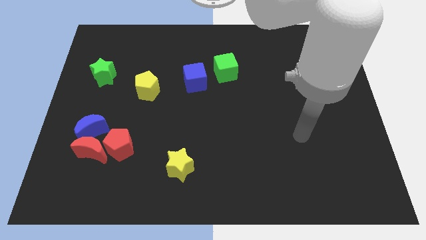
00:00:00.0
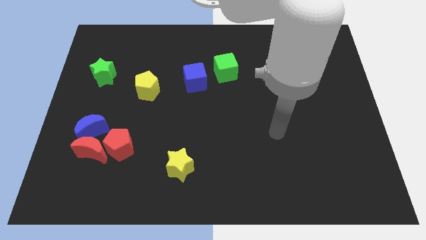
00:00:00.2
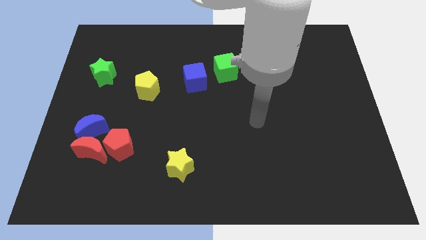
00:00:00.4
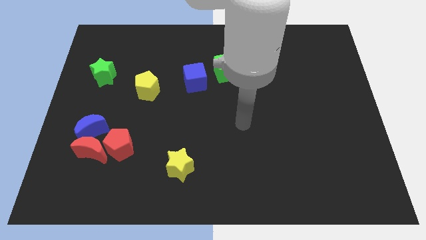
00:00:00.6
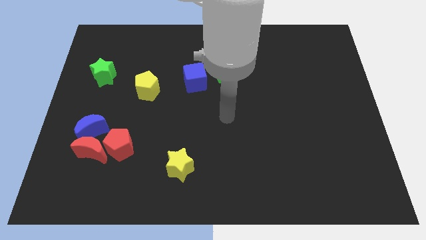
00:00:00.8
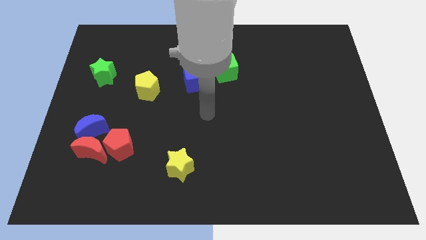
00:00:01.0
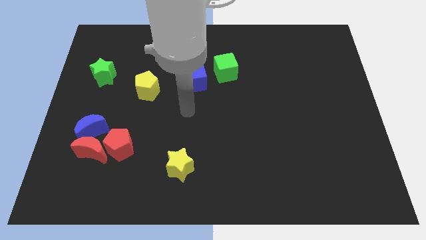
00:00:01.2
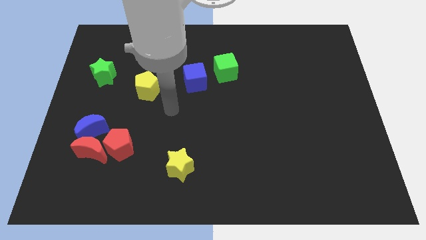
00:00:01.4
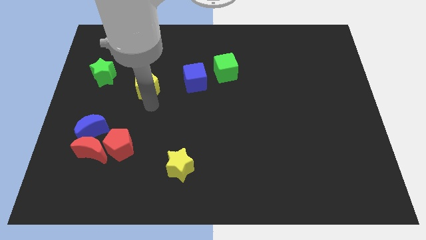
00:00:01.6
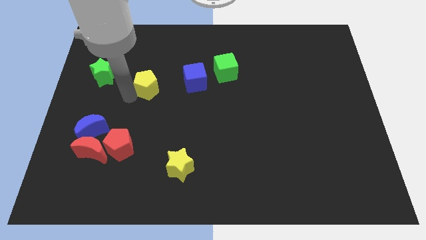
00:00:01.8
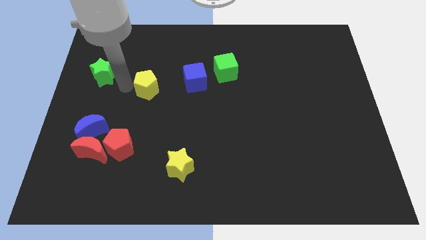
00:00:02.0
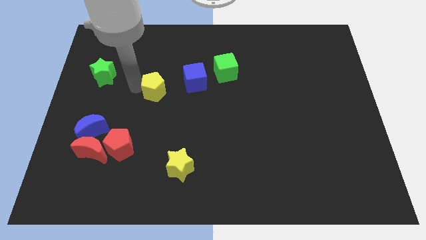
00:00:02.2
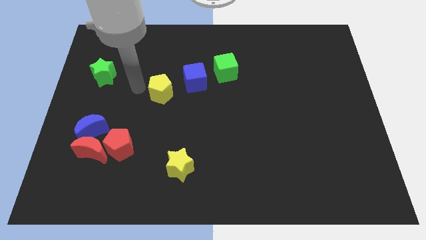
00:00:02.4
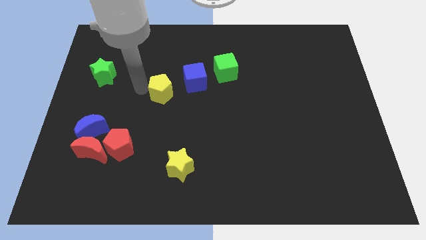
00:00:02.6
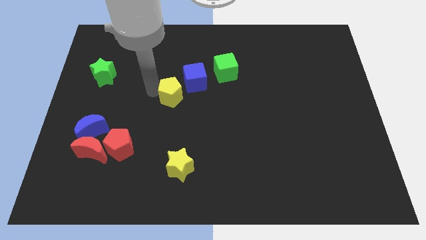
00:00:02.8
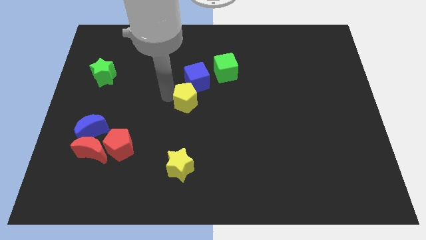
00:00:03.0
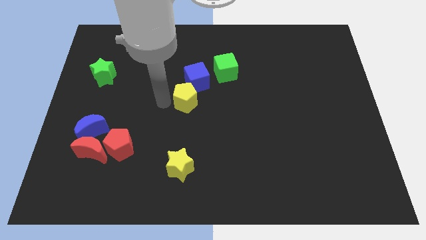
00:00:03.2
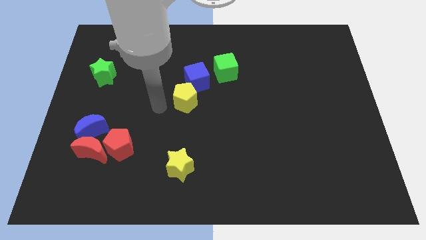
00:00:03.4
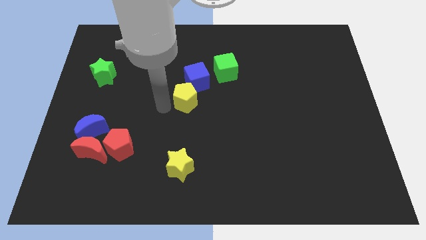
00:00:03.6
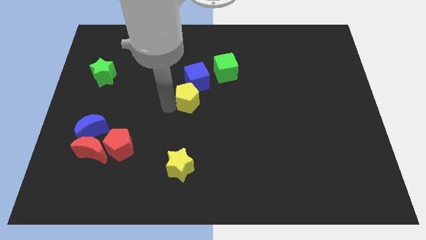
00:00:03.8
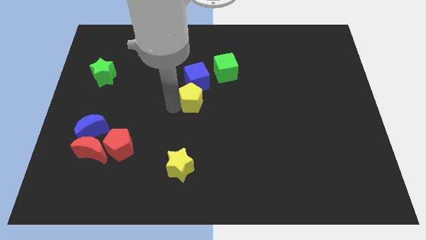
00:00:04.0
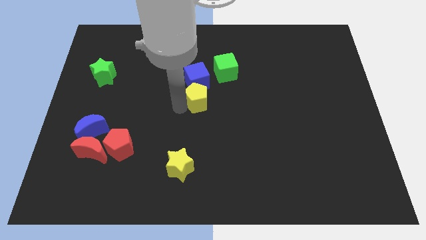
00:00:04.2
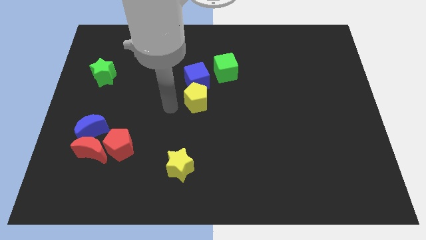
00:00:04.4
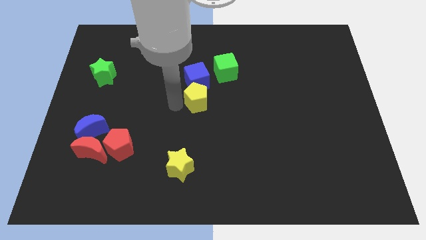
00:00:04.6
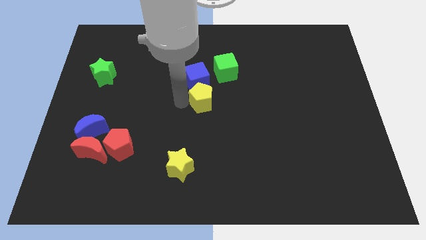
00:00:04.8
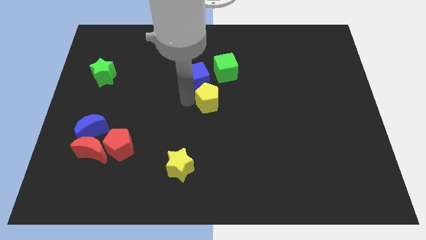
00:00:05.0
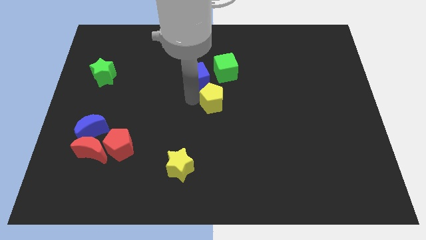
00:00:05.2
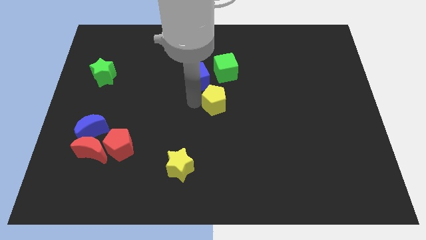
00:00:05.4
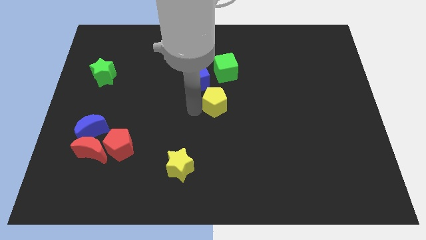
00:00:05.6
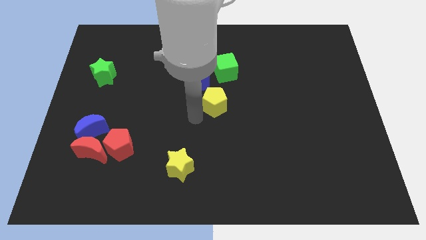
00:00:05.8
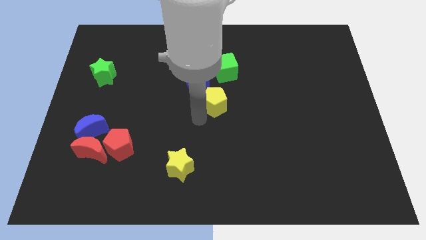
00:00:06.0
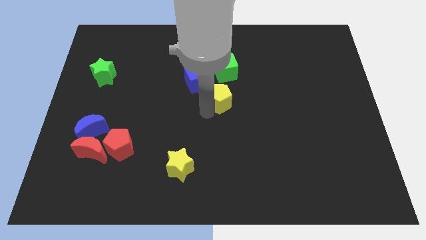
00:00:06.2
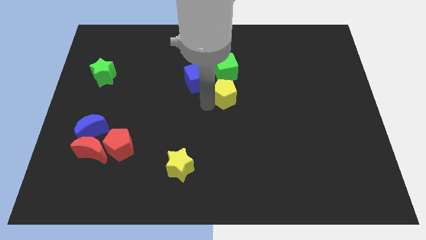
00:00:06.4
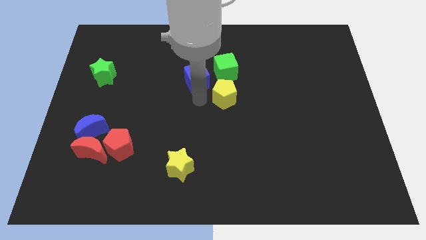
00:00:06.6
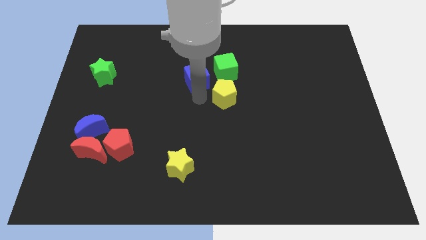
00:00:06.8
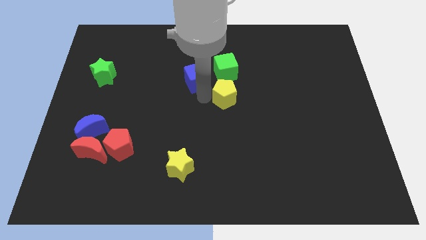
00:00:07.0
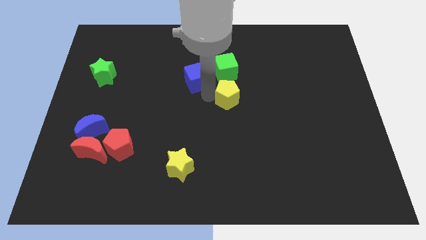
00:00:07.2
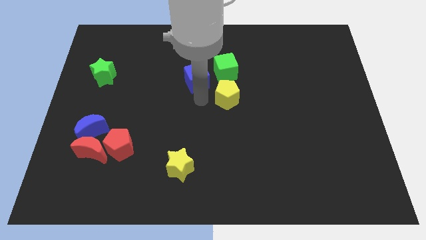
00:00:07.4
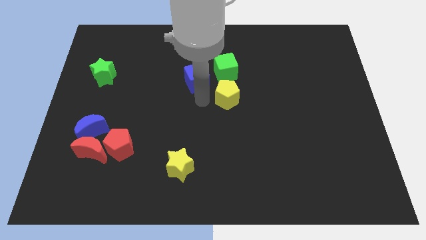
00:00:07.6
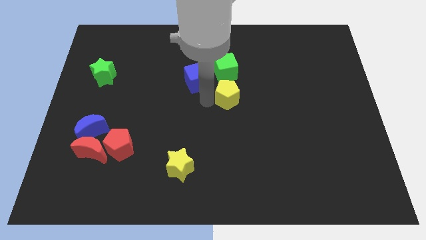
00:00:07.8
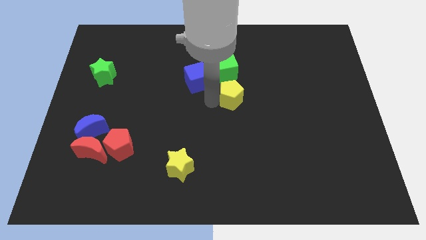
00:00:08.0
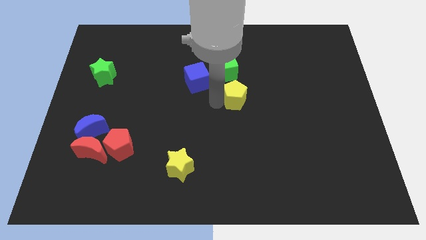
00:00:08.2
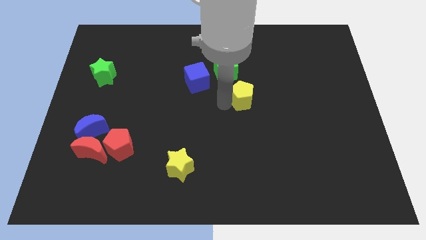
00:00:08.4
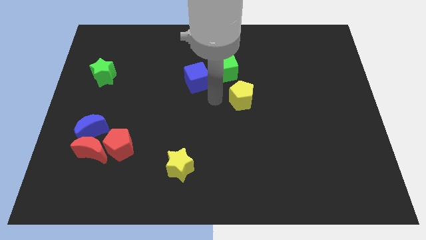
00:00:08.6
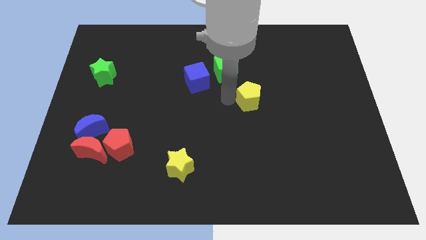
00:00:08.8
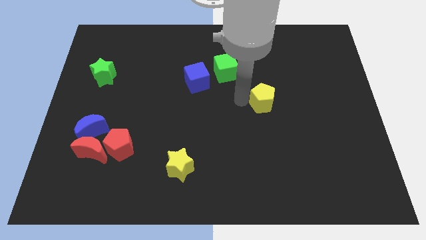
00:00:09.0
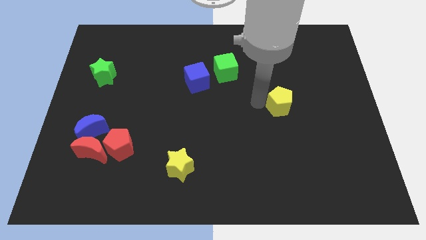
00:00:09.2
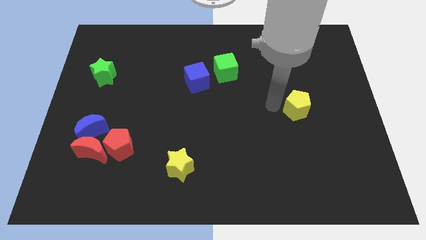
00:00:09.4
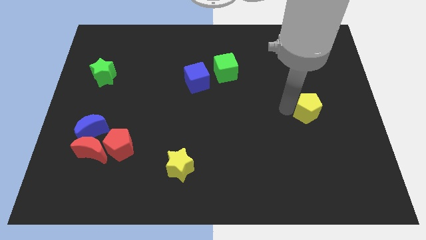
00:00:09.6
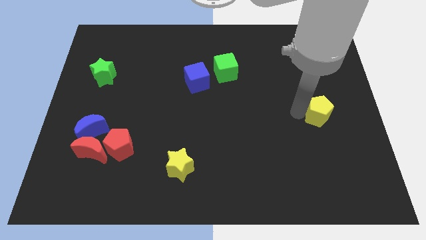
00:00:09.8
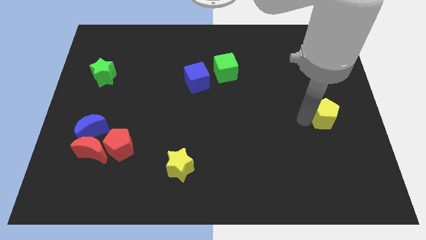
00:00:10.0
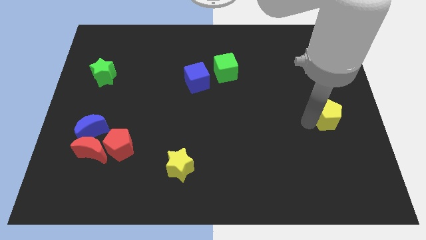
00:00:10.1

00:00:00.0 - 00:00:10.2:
put the yellow pentagon to the right side

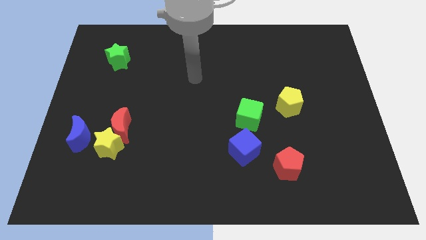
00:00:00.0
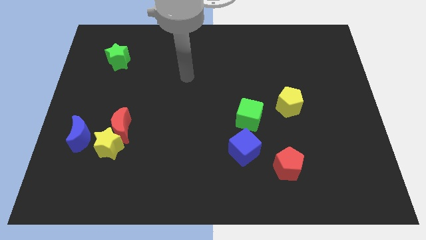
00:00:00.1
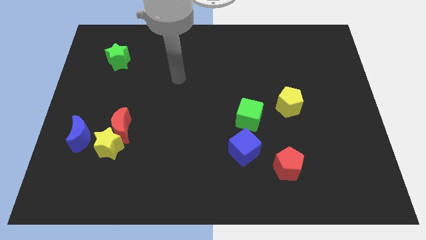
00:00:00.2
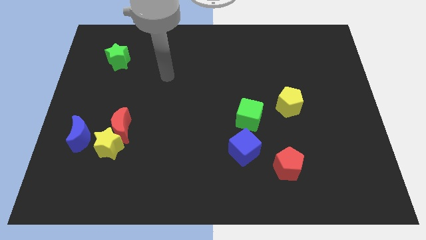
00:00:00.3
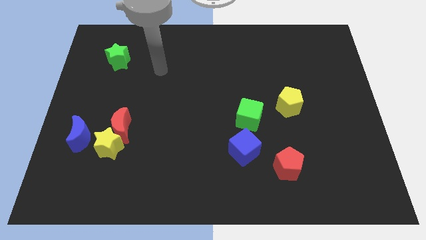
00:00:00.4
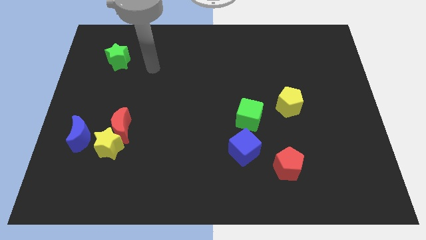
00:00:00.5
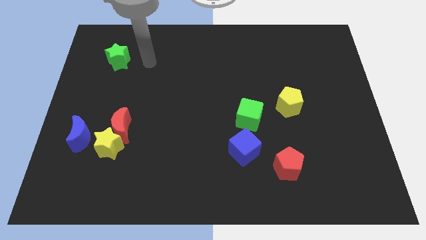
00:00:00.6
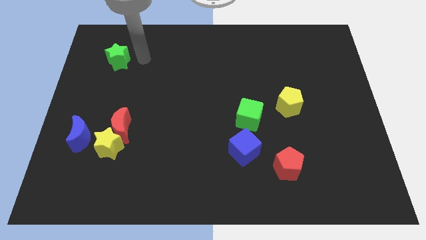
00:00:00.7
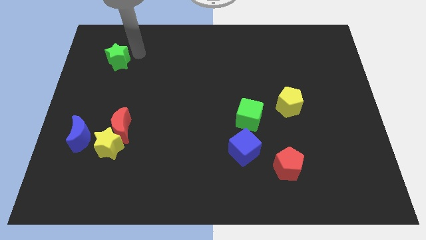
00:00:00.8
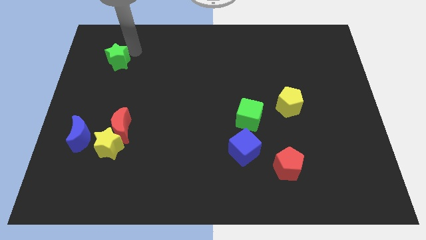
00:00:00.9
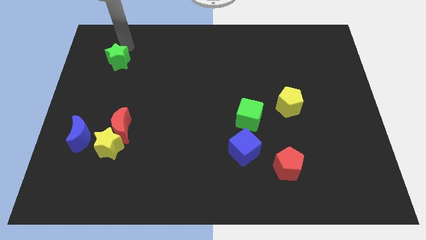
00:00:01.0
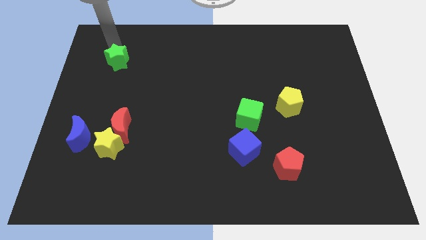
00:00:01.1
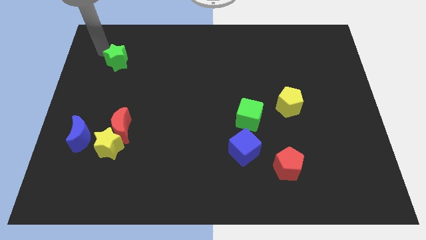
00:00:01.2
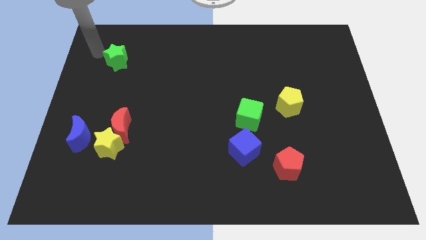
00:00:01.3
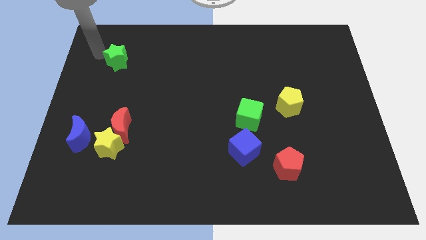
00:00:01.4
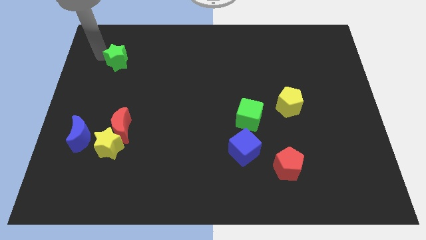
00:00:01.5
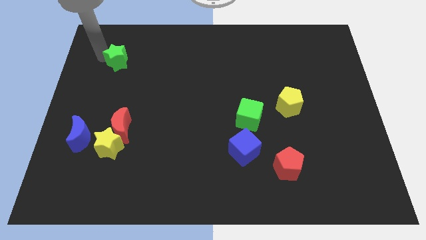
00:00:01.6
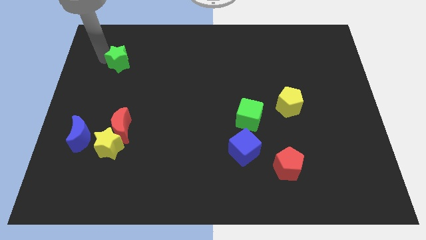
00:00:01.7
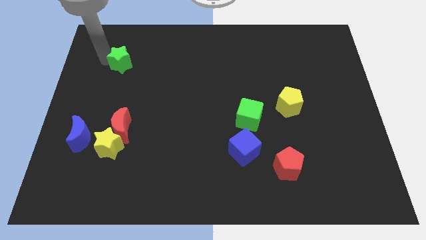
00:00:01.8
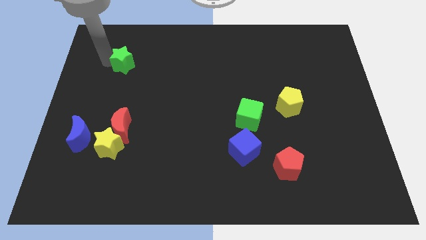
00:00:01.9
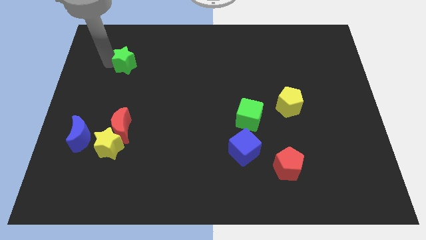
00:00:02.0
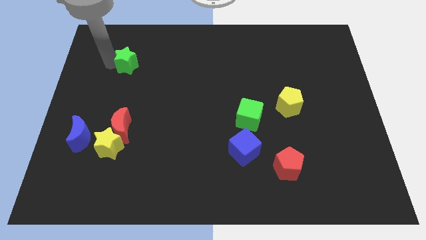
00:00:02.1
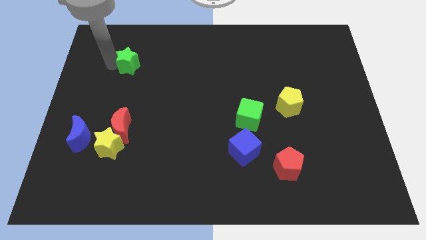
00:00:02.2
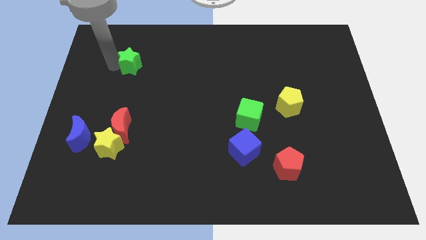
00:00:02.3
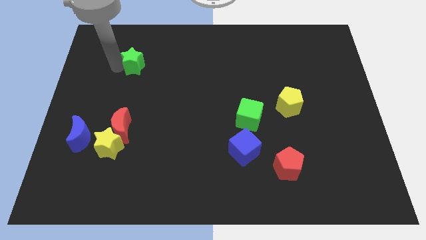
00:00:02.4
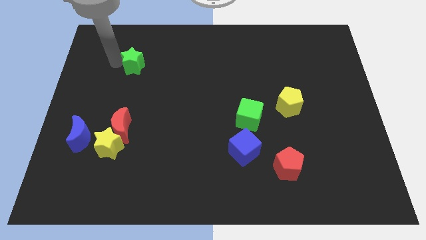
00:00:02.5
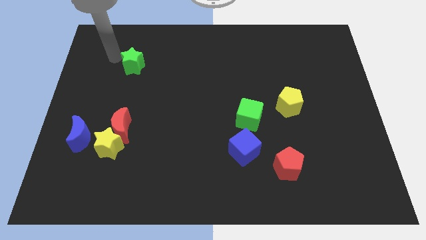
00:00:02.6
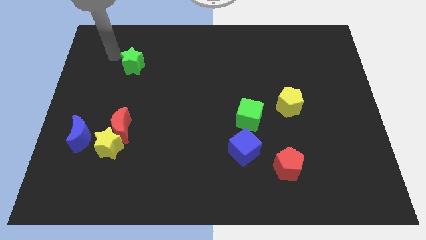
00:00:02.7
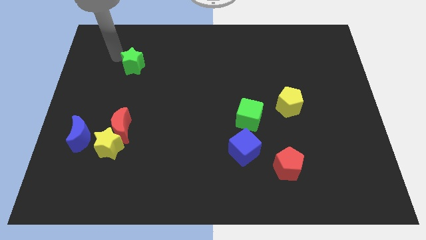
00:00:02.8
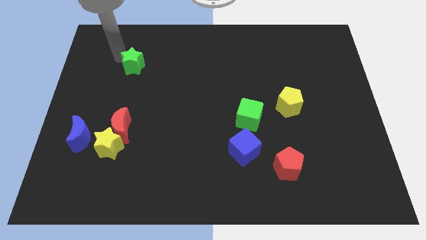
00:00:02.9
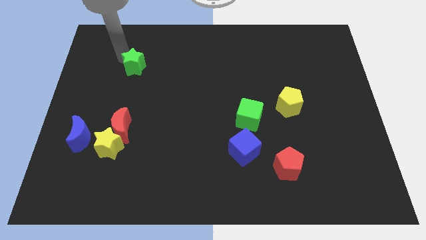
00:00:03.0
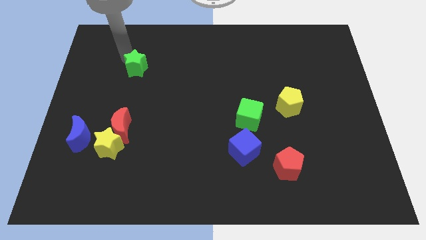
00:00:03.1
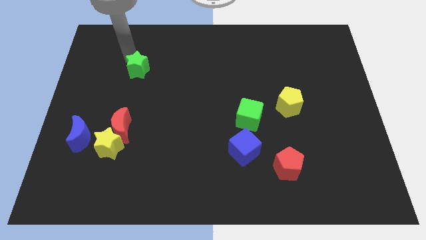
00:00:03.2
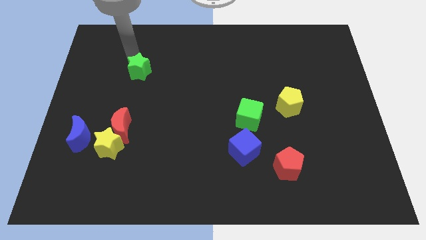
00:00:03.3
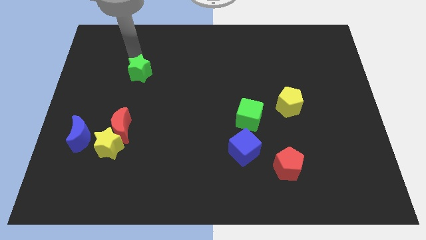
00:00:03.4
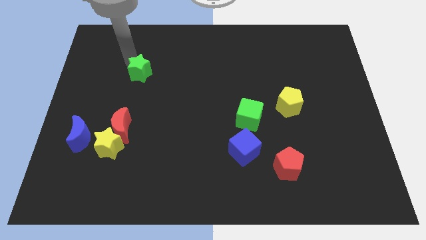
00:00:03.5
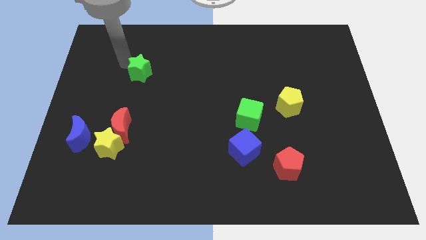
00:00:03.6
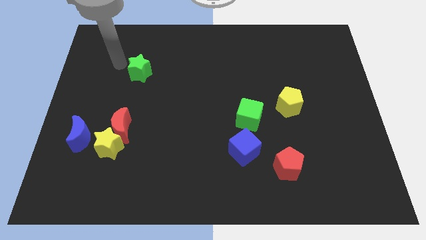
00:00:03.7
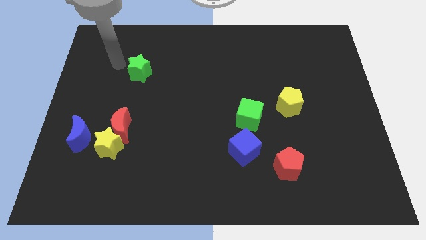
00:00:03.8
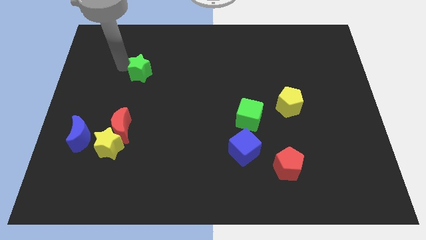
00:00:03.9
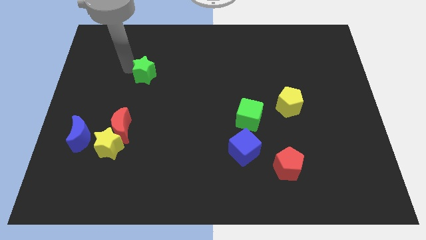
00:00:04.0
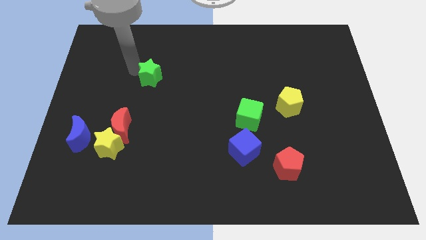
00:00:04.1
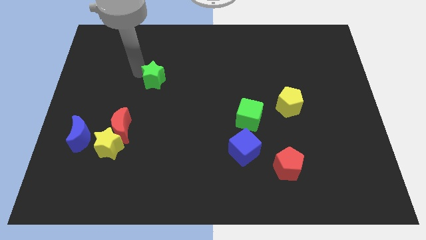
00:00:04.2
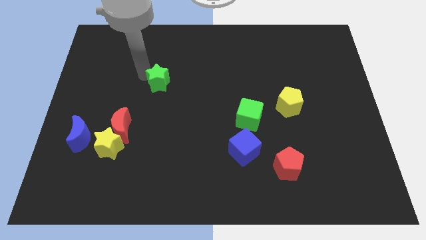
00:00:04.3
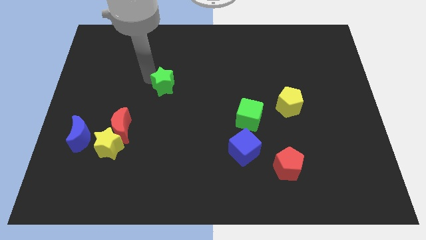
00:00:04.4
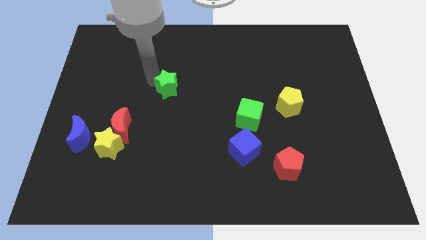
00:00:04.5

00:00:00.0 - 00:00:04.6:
put the green star to the center
